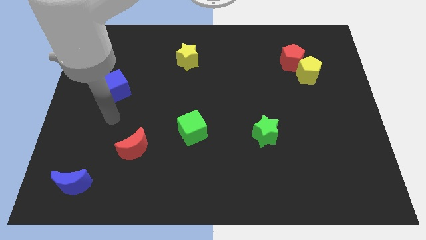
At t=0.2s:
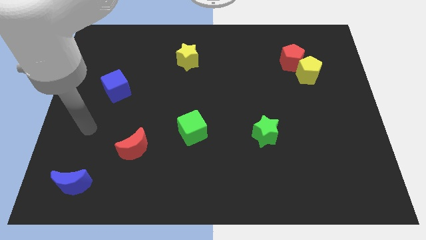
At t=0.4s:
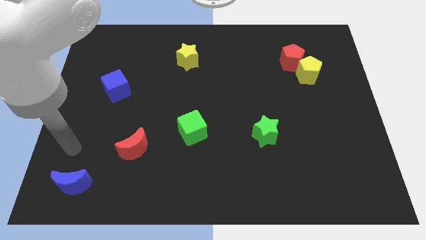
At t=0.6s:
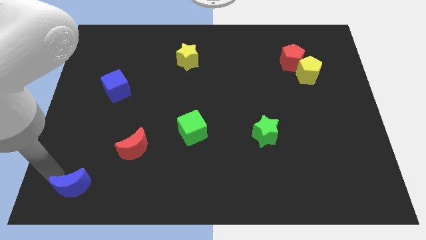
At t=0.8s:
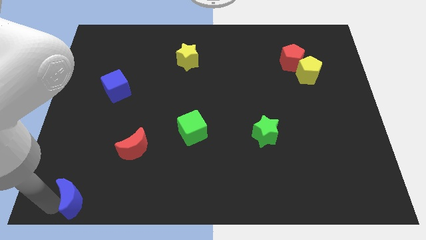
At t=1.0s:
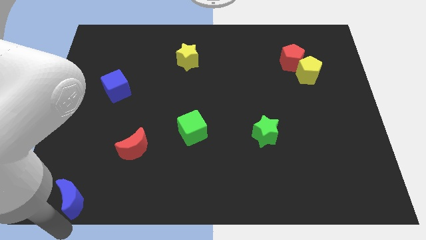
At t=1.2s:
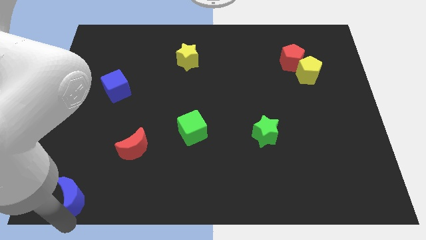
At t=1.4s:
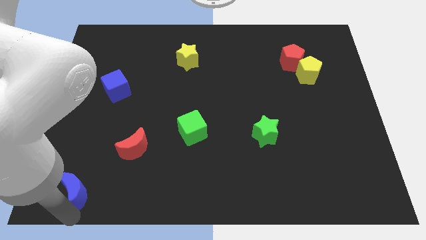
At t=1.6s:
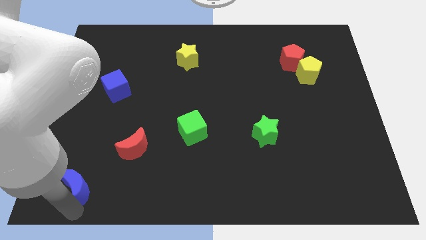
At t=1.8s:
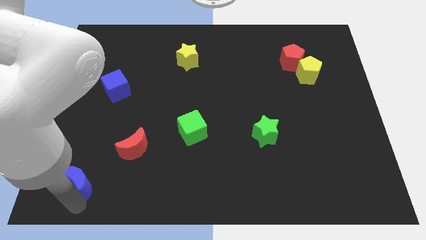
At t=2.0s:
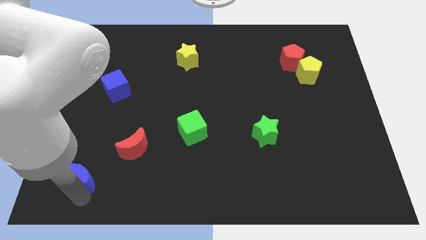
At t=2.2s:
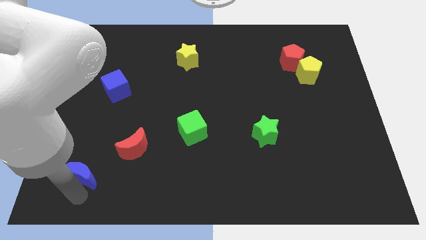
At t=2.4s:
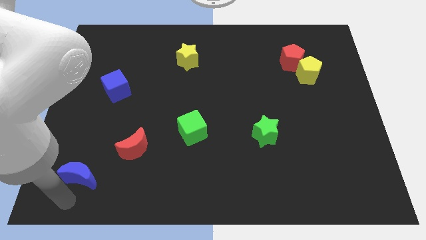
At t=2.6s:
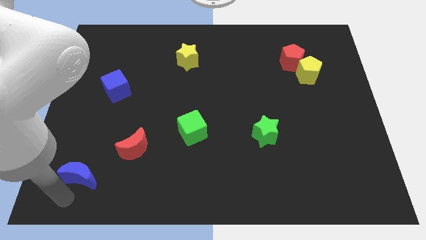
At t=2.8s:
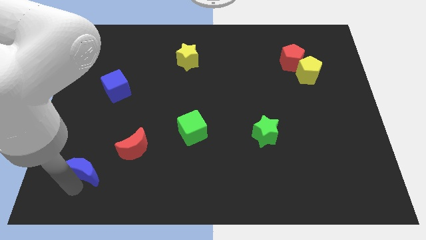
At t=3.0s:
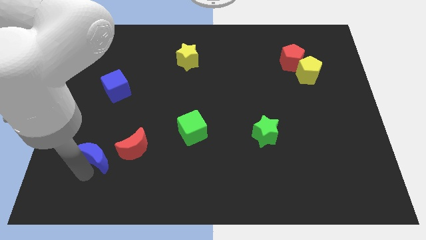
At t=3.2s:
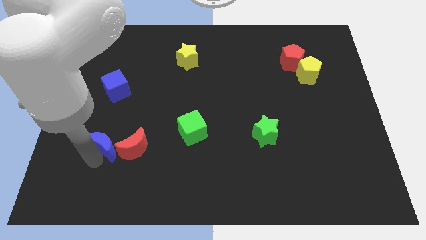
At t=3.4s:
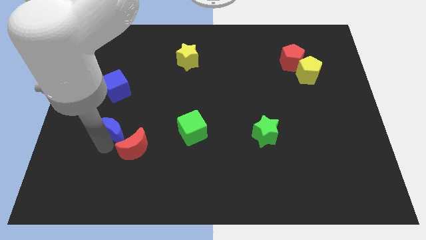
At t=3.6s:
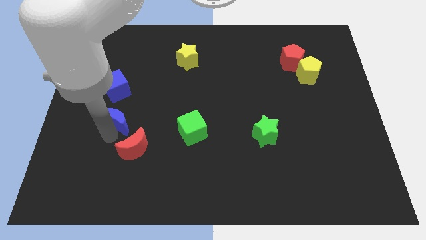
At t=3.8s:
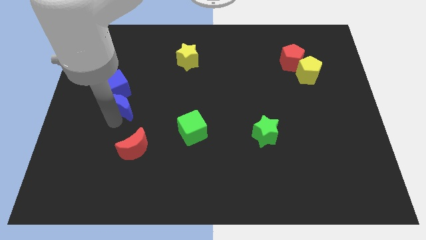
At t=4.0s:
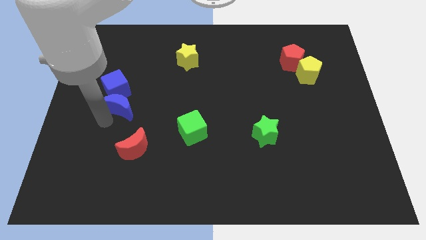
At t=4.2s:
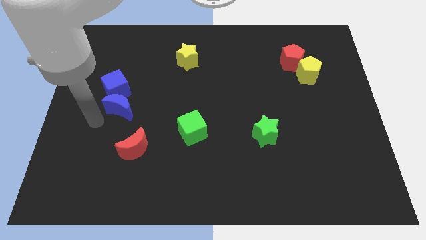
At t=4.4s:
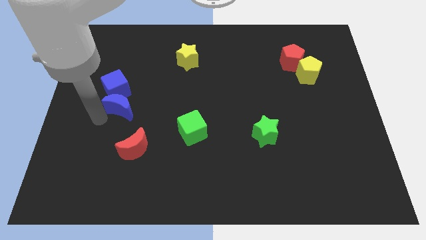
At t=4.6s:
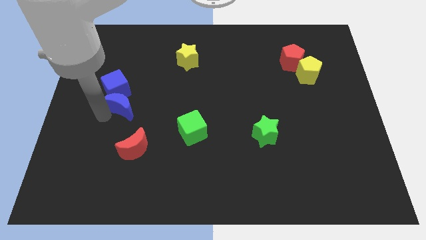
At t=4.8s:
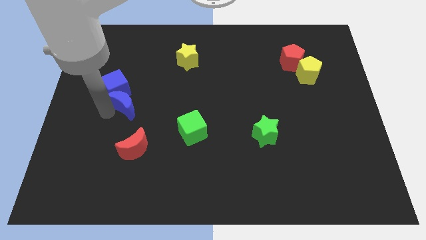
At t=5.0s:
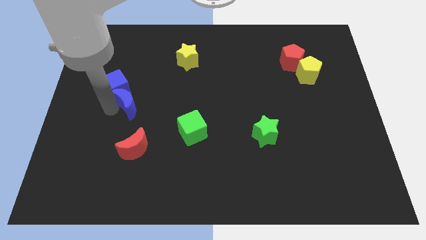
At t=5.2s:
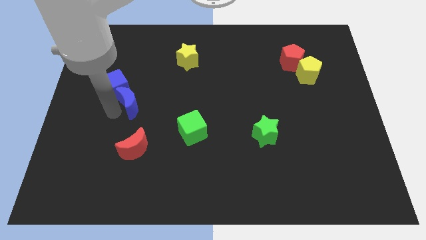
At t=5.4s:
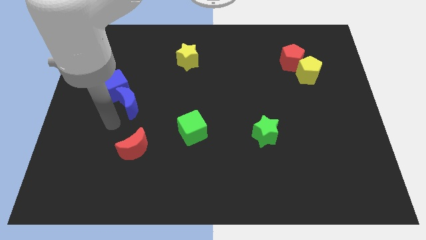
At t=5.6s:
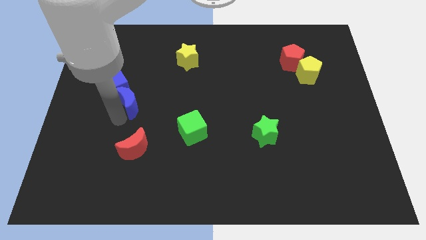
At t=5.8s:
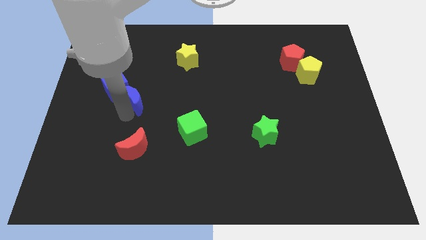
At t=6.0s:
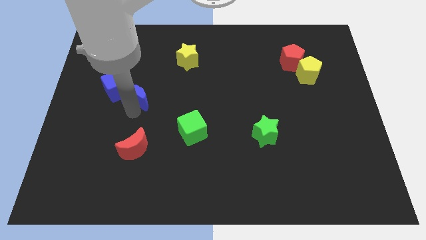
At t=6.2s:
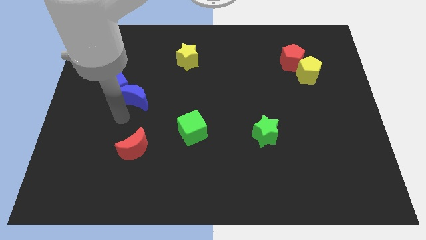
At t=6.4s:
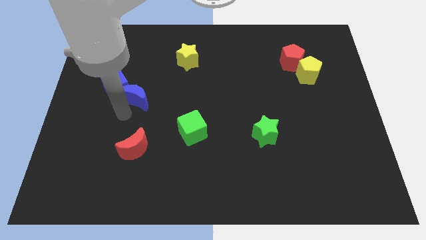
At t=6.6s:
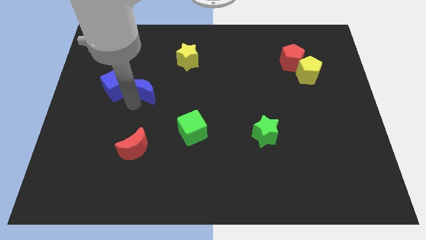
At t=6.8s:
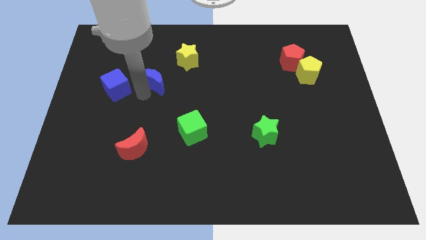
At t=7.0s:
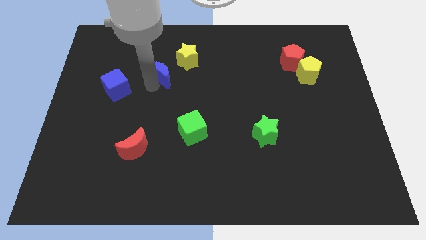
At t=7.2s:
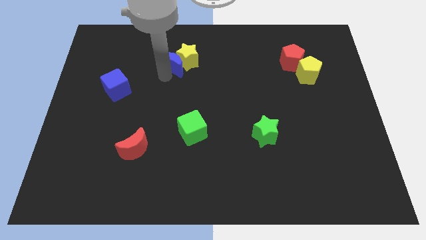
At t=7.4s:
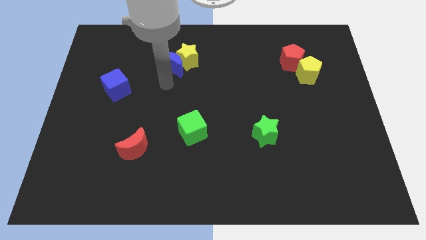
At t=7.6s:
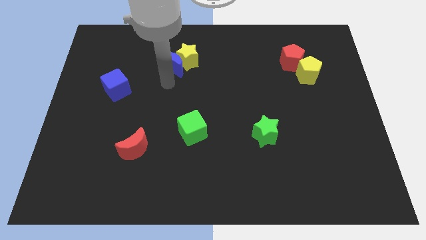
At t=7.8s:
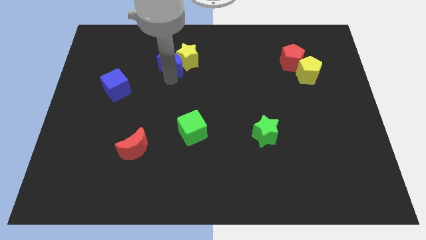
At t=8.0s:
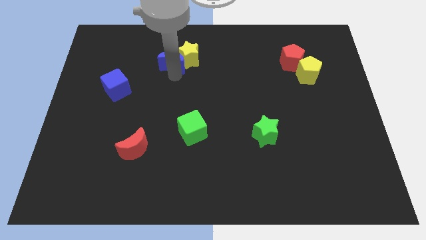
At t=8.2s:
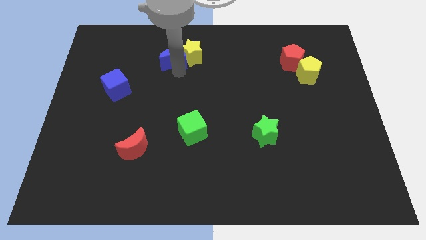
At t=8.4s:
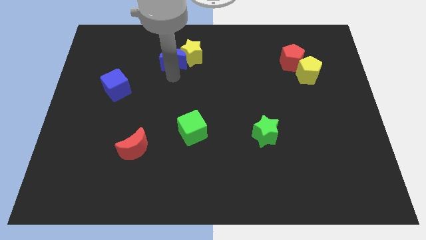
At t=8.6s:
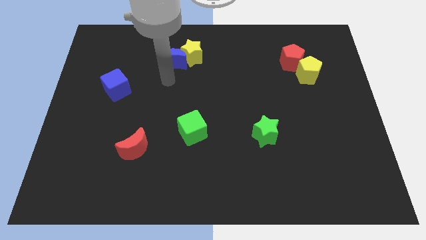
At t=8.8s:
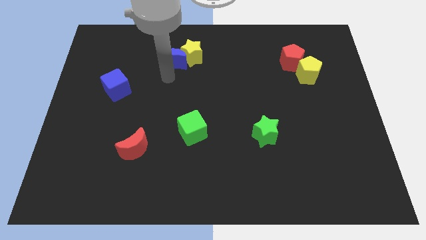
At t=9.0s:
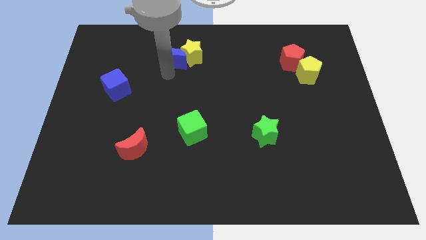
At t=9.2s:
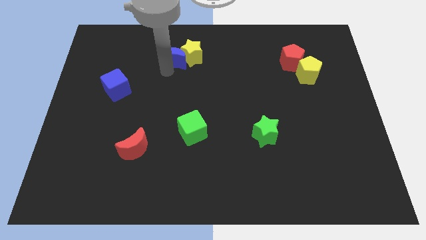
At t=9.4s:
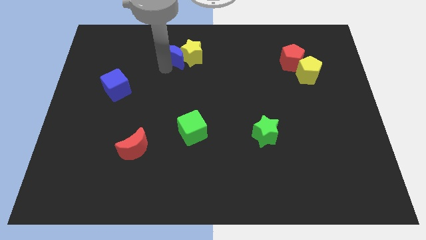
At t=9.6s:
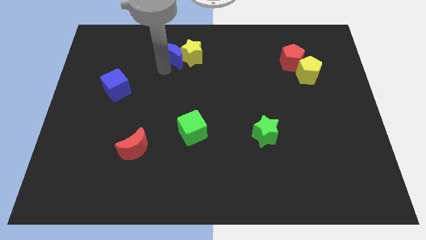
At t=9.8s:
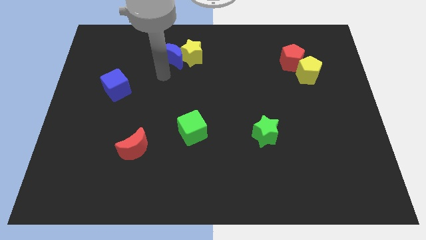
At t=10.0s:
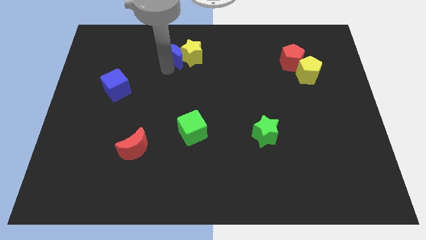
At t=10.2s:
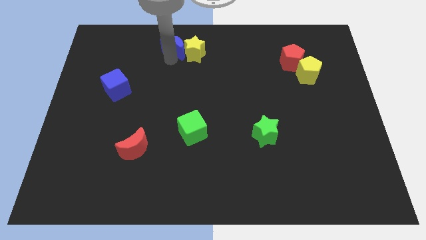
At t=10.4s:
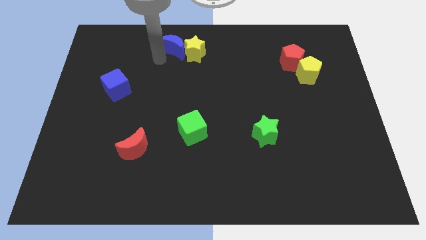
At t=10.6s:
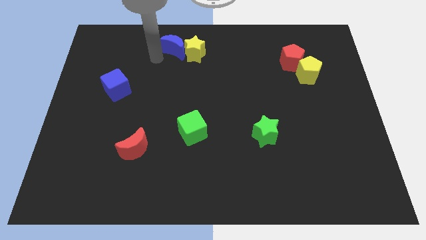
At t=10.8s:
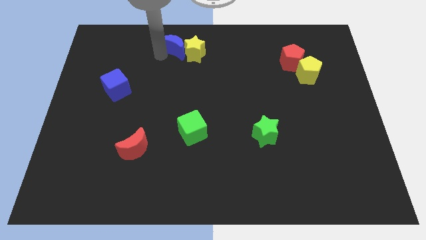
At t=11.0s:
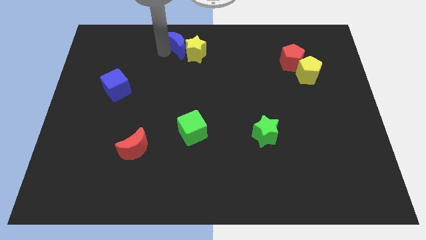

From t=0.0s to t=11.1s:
push the blue moon to the top
